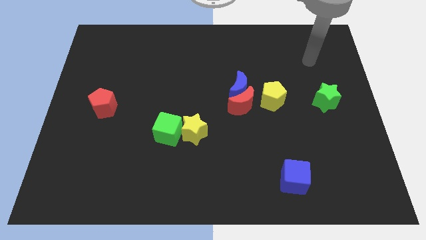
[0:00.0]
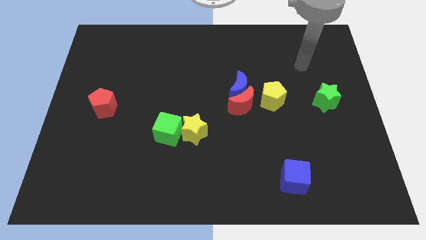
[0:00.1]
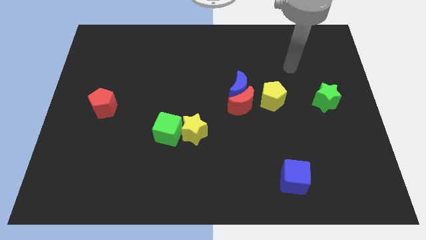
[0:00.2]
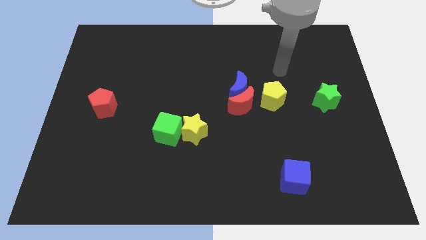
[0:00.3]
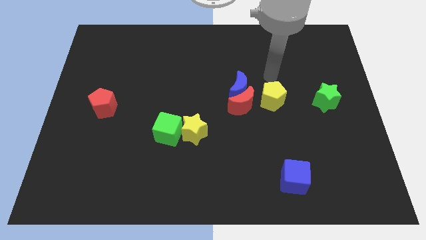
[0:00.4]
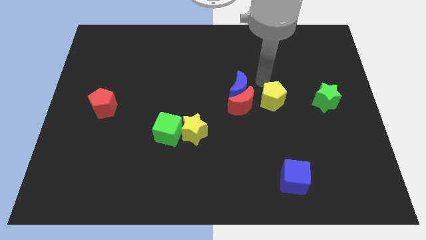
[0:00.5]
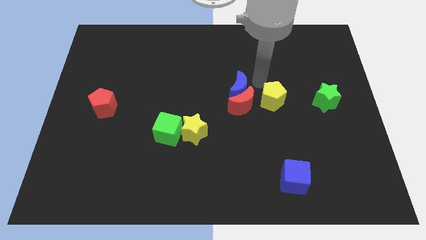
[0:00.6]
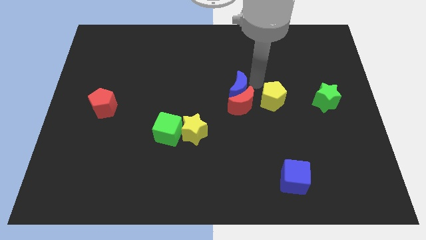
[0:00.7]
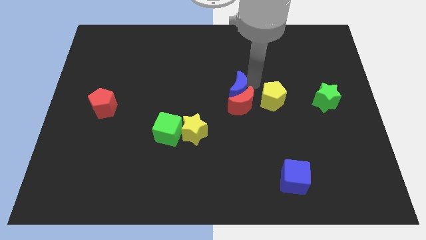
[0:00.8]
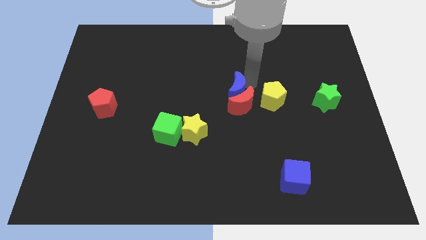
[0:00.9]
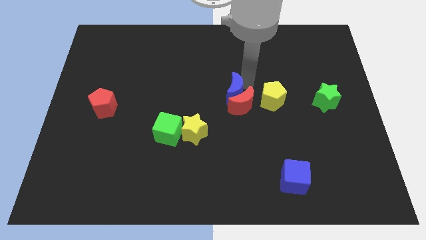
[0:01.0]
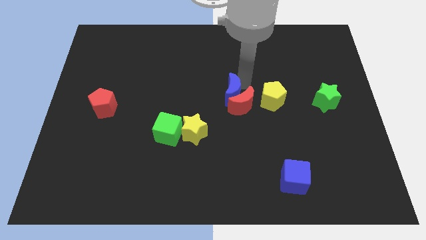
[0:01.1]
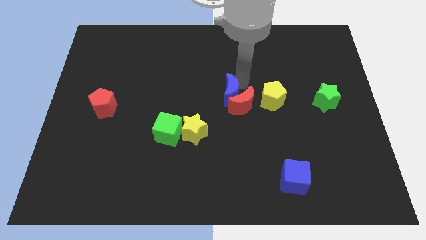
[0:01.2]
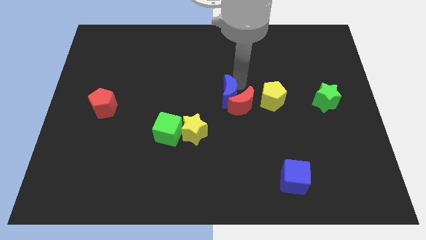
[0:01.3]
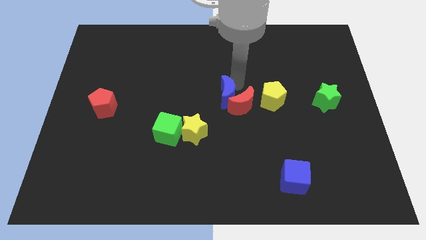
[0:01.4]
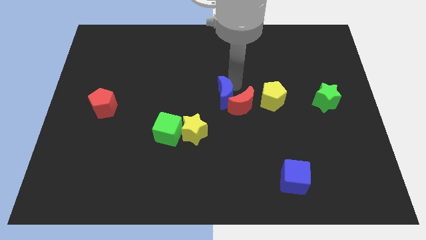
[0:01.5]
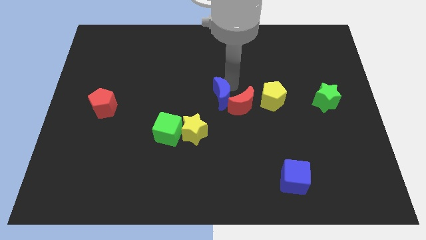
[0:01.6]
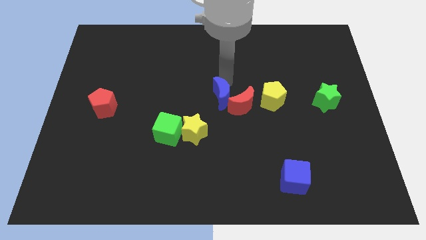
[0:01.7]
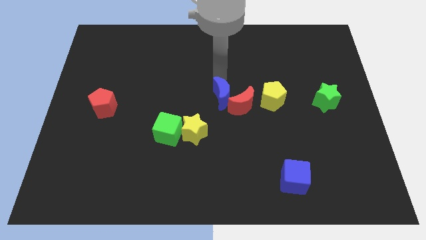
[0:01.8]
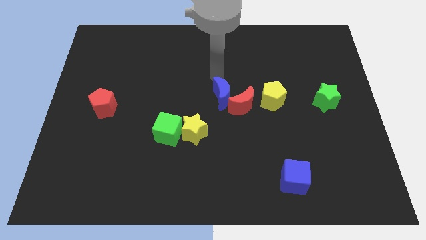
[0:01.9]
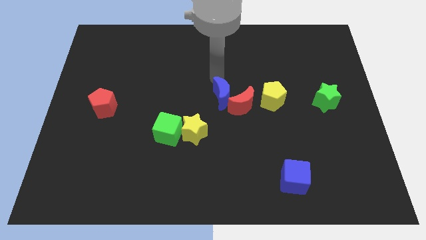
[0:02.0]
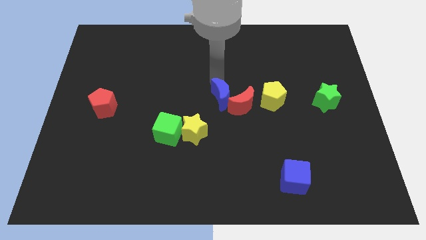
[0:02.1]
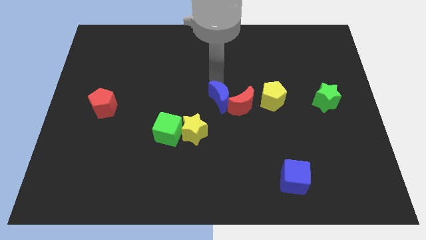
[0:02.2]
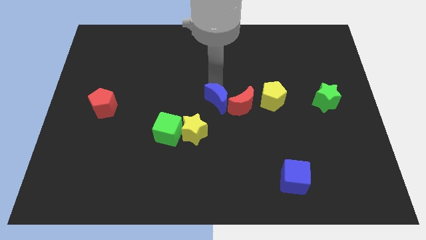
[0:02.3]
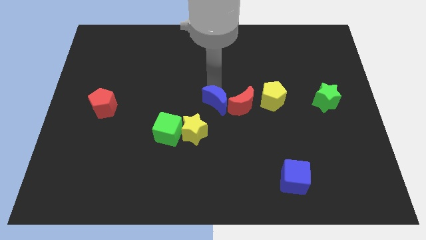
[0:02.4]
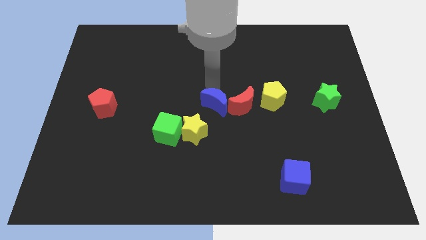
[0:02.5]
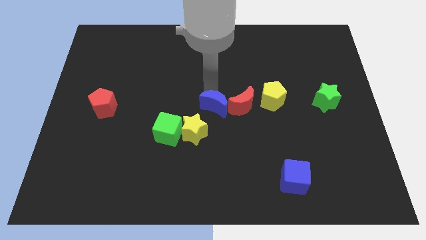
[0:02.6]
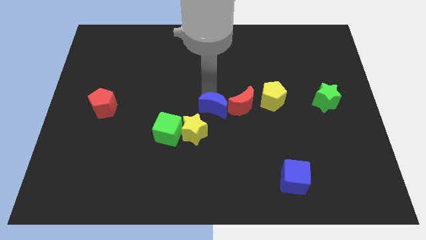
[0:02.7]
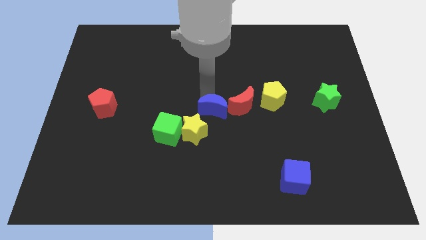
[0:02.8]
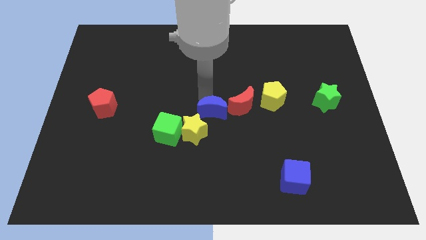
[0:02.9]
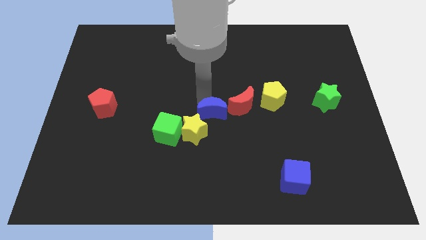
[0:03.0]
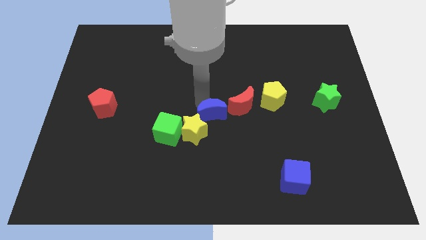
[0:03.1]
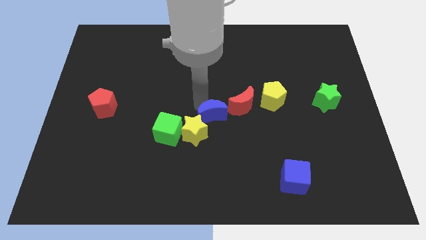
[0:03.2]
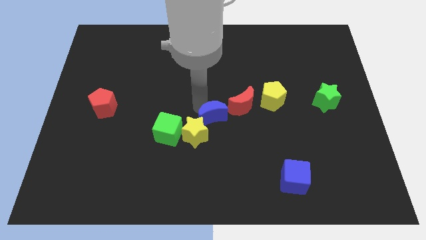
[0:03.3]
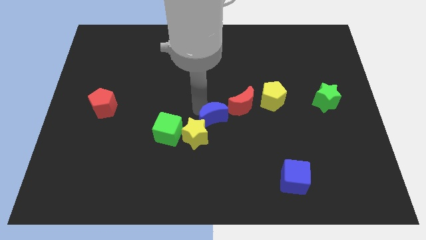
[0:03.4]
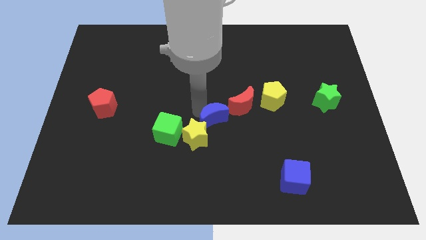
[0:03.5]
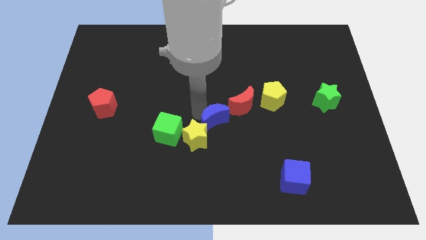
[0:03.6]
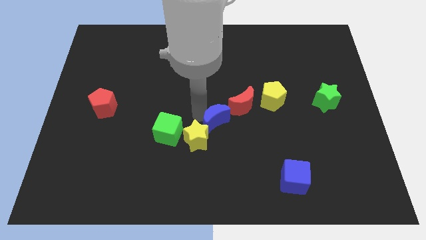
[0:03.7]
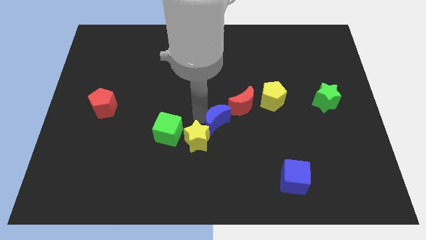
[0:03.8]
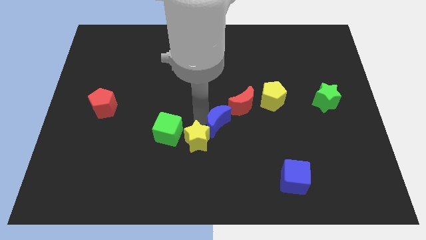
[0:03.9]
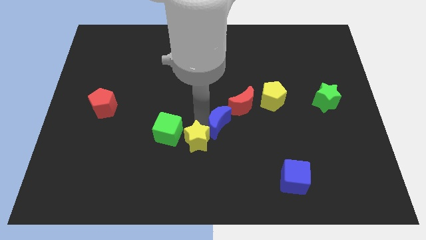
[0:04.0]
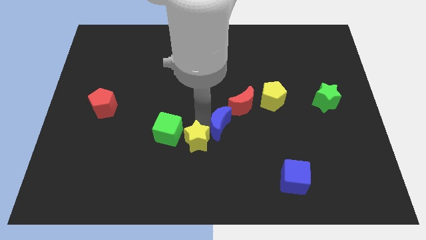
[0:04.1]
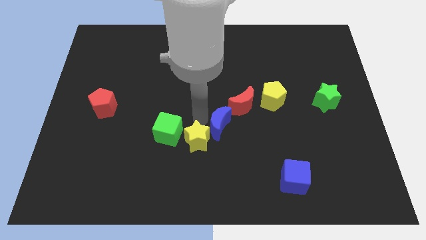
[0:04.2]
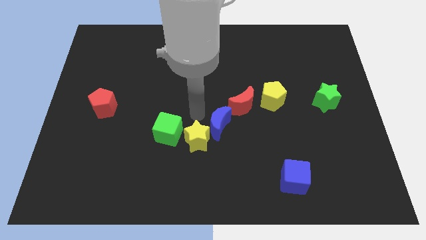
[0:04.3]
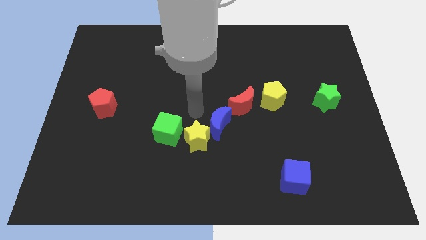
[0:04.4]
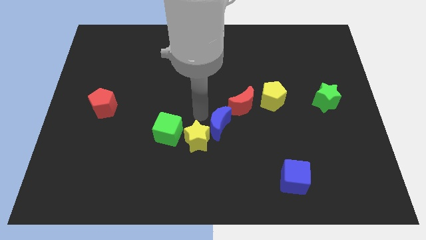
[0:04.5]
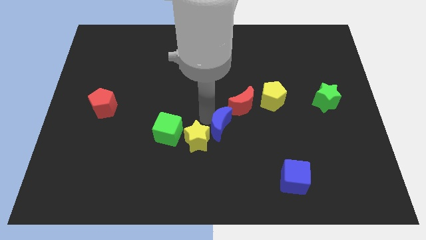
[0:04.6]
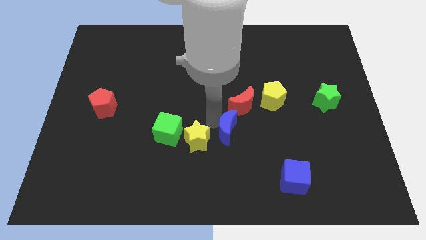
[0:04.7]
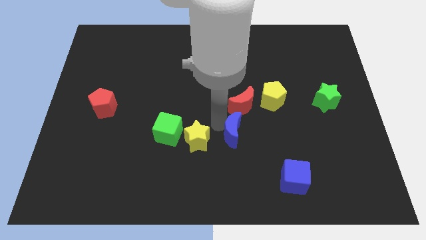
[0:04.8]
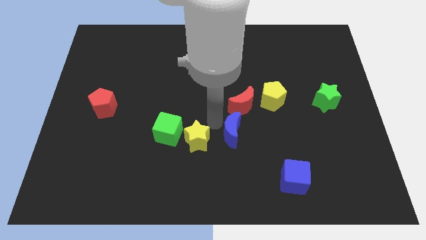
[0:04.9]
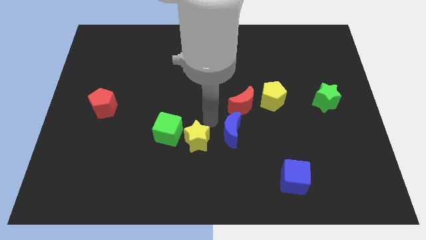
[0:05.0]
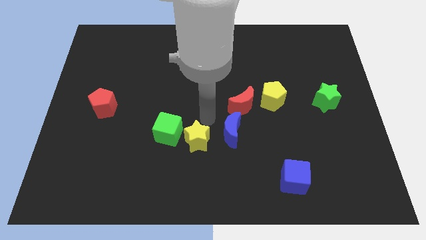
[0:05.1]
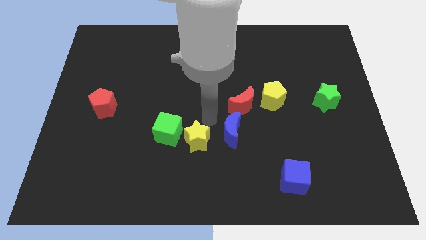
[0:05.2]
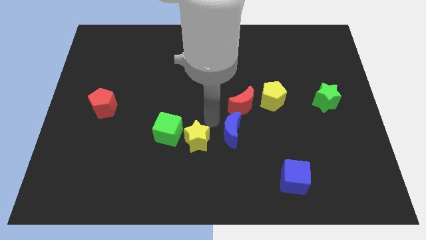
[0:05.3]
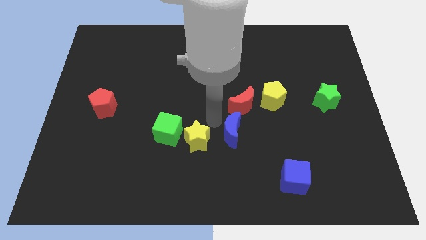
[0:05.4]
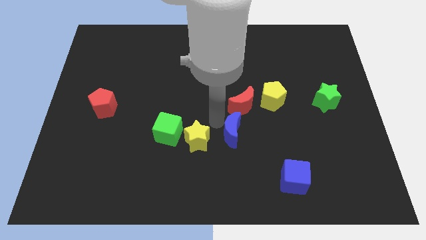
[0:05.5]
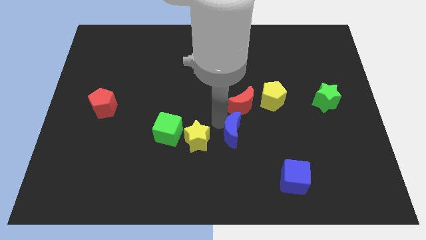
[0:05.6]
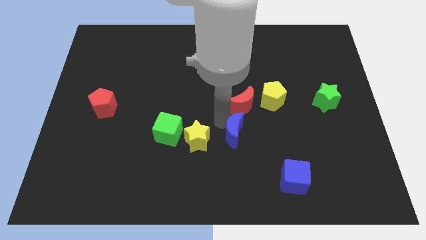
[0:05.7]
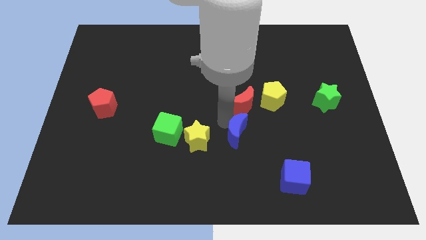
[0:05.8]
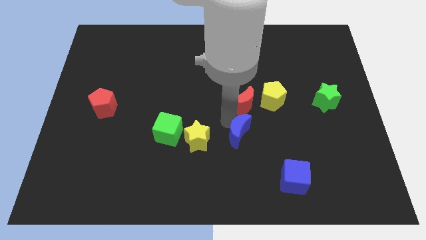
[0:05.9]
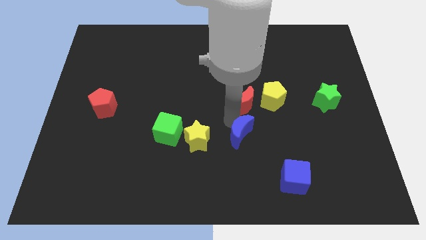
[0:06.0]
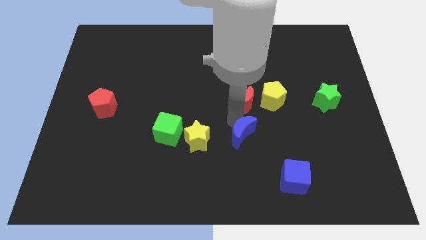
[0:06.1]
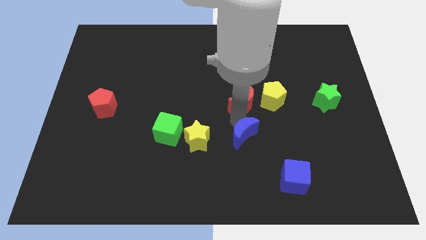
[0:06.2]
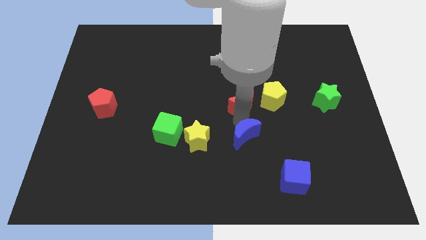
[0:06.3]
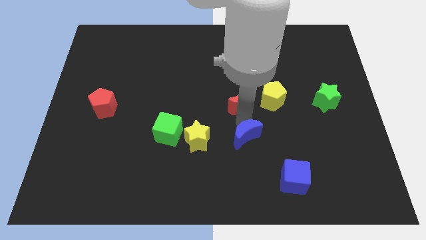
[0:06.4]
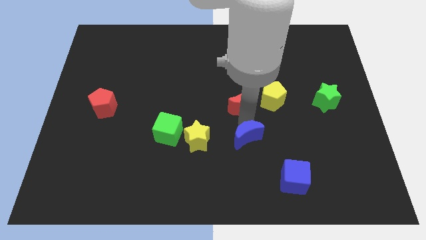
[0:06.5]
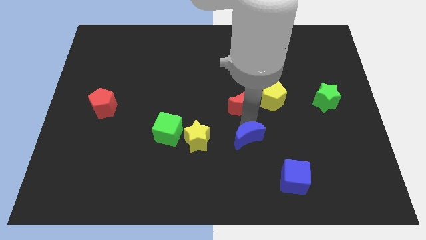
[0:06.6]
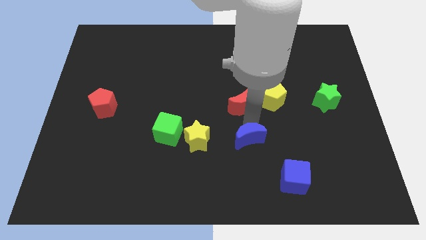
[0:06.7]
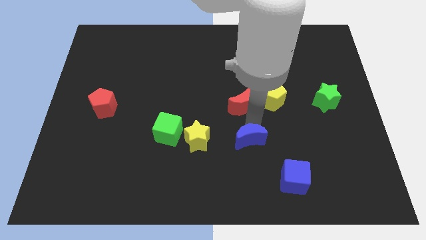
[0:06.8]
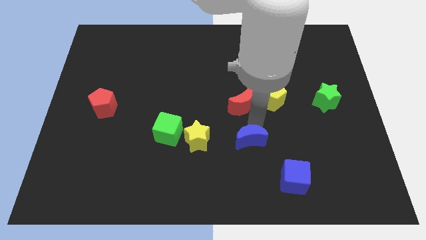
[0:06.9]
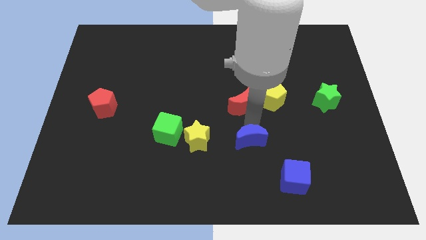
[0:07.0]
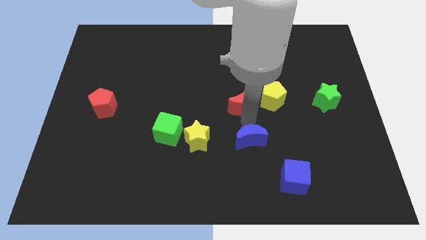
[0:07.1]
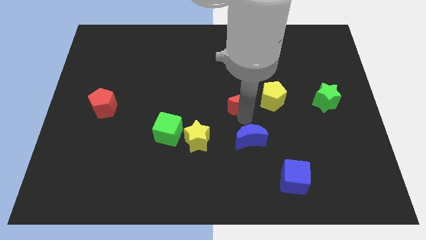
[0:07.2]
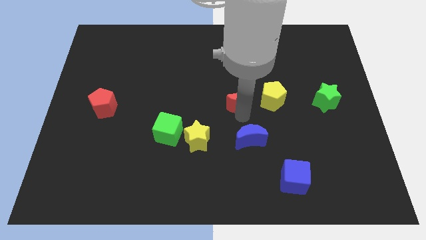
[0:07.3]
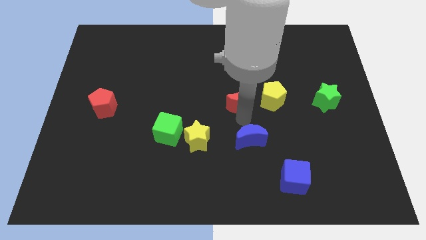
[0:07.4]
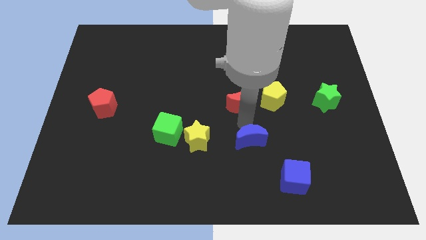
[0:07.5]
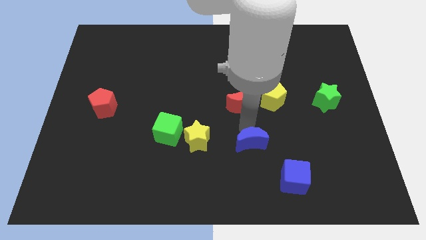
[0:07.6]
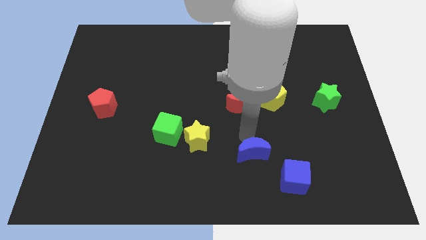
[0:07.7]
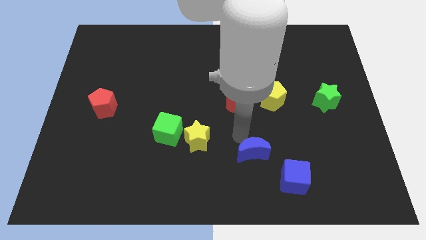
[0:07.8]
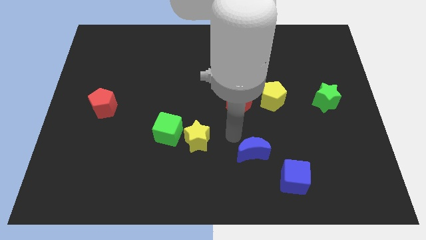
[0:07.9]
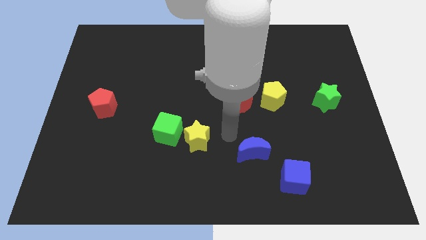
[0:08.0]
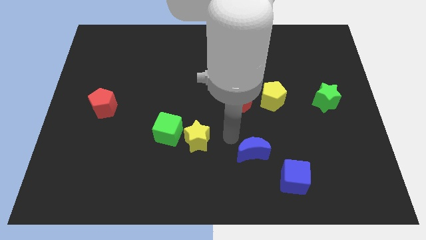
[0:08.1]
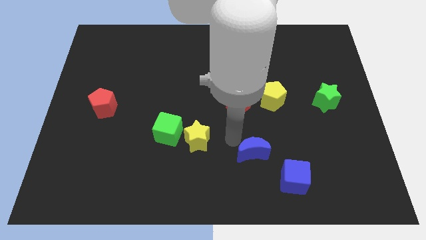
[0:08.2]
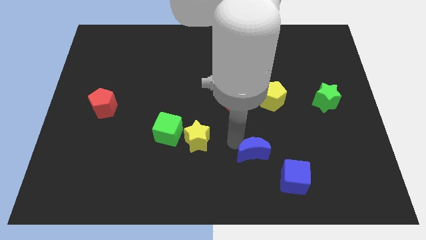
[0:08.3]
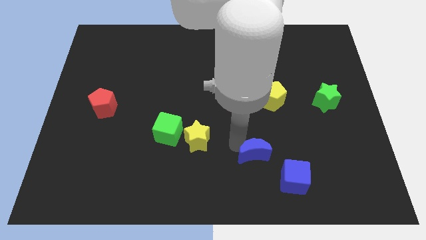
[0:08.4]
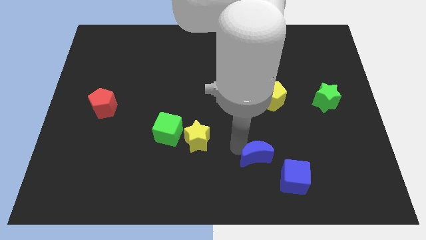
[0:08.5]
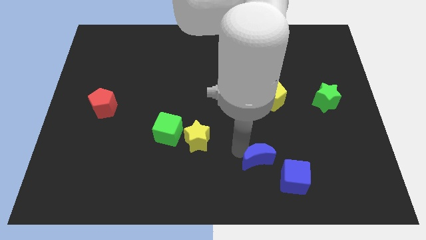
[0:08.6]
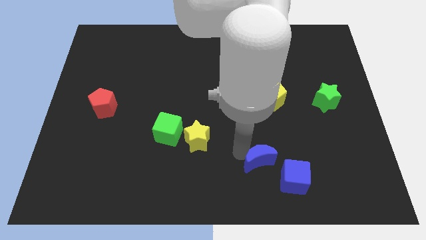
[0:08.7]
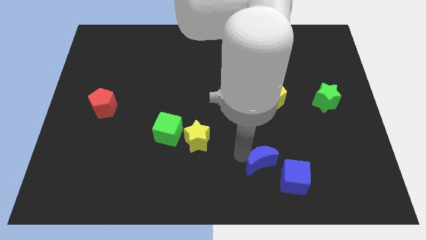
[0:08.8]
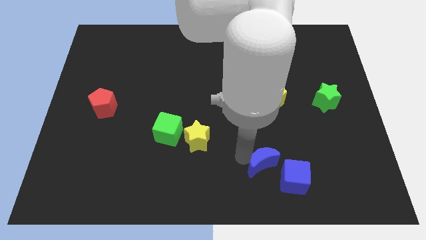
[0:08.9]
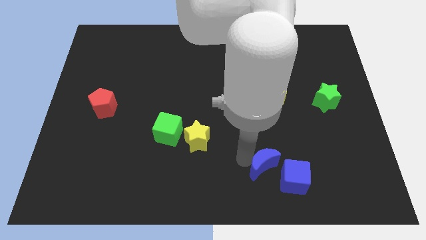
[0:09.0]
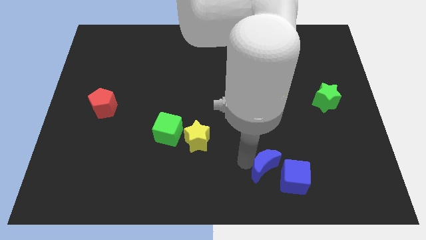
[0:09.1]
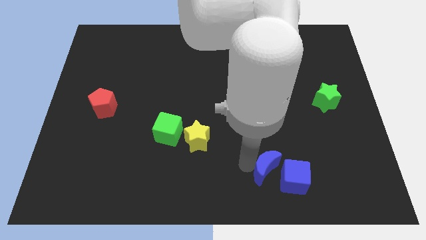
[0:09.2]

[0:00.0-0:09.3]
push the blue moon close to the blue cube
